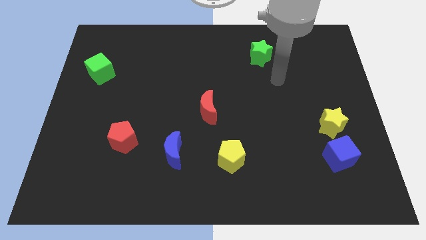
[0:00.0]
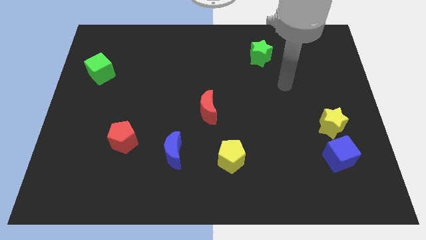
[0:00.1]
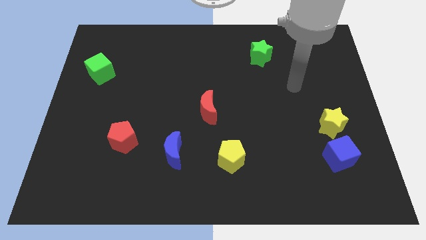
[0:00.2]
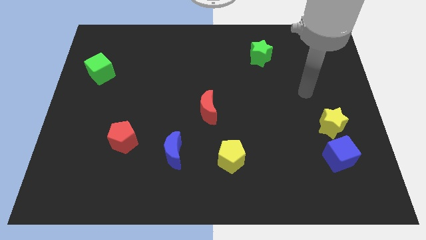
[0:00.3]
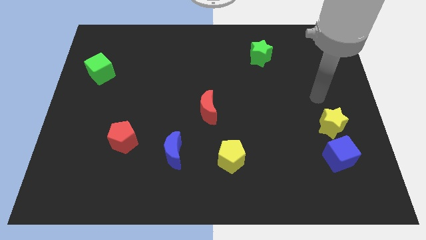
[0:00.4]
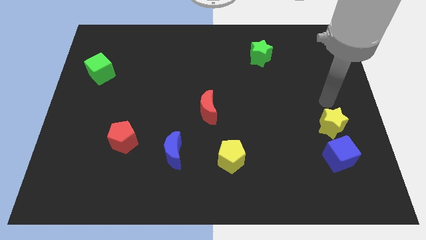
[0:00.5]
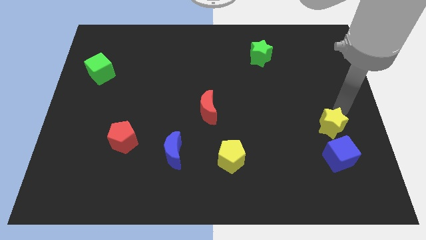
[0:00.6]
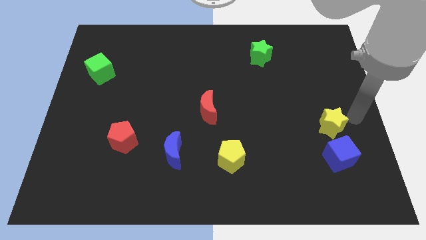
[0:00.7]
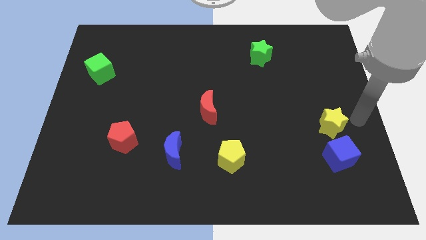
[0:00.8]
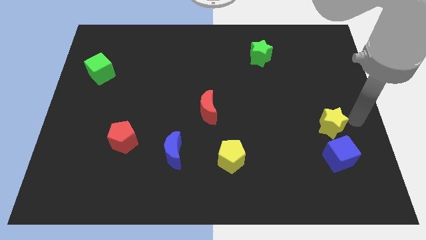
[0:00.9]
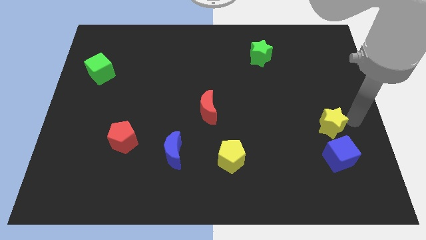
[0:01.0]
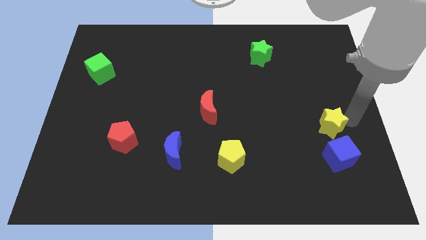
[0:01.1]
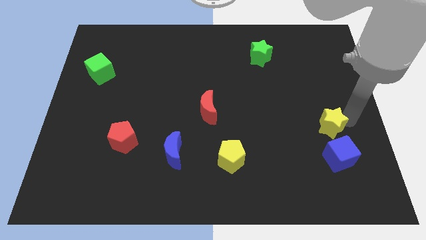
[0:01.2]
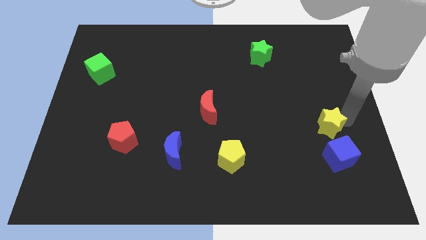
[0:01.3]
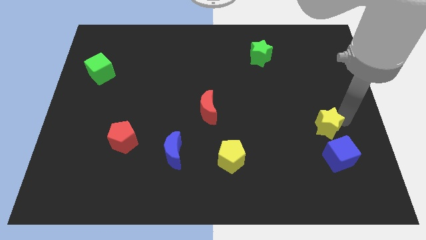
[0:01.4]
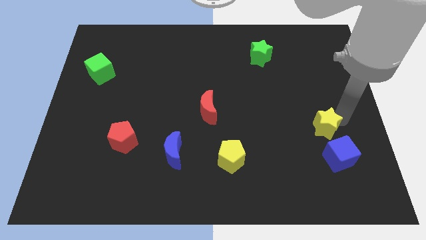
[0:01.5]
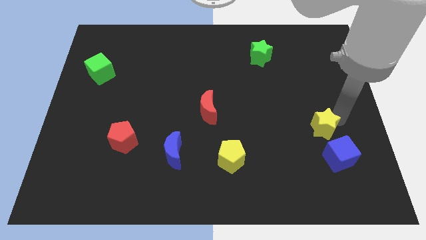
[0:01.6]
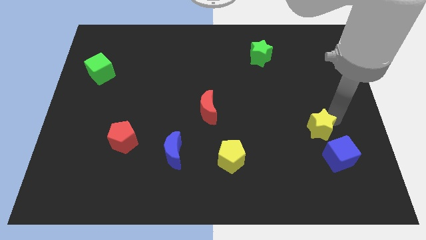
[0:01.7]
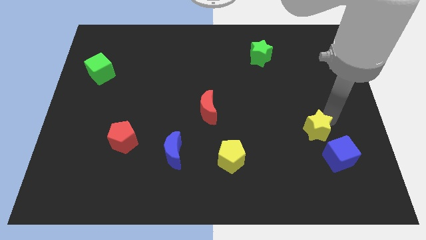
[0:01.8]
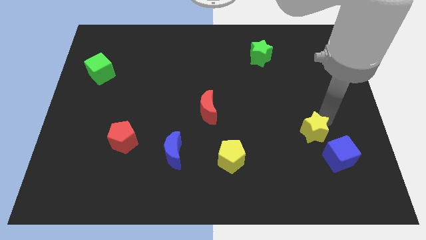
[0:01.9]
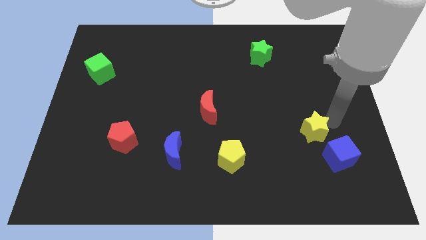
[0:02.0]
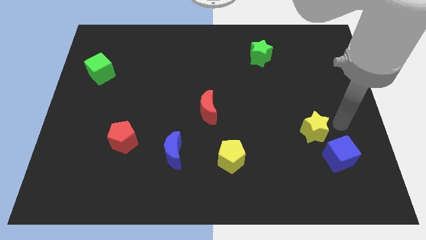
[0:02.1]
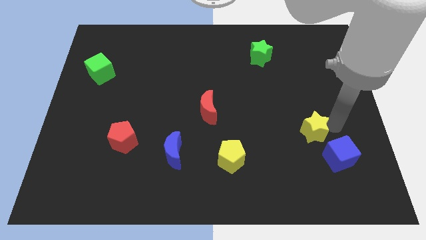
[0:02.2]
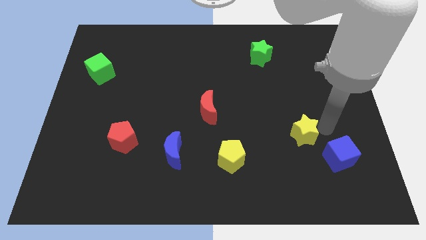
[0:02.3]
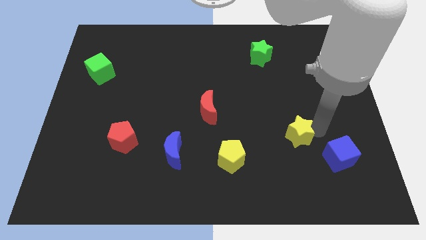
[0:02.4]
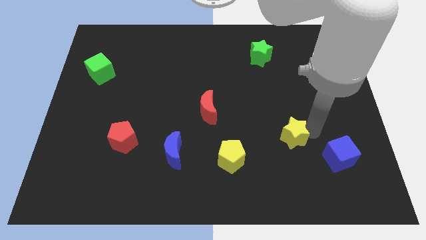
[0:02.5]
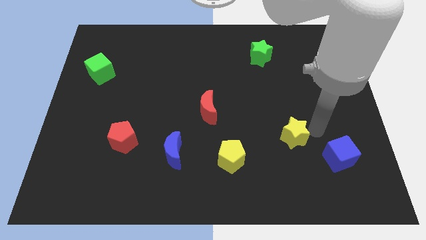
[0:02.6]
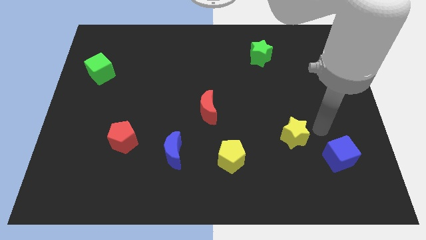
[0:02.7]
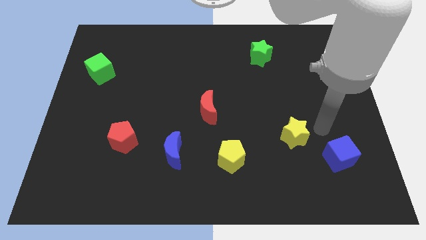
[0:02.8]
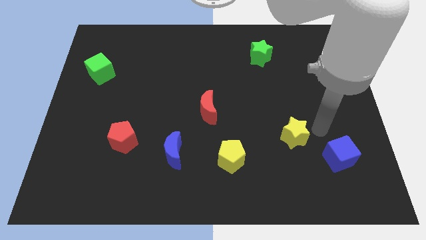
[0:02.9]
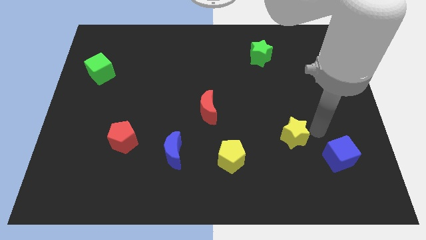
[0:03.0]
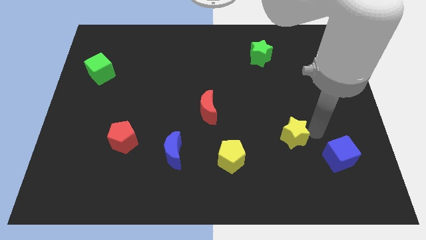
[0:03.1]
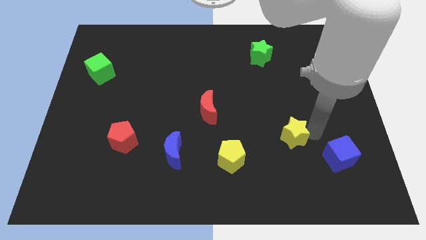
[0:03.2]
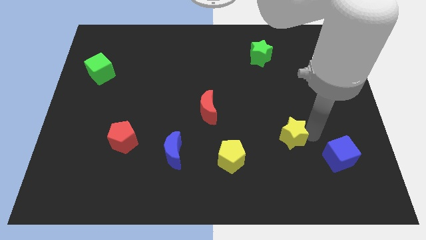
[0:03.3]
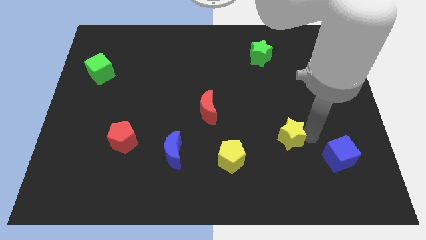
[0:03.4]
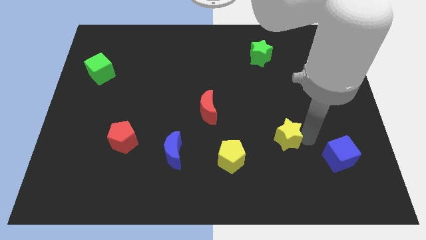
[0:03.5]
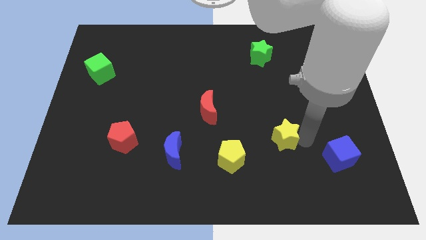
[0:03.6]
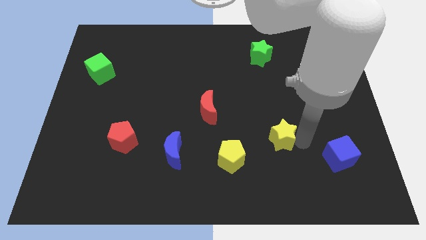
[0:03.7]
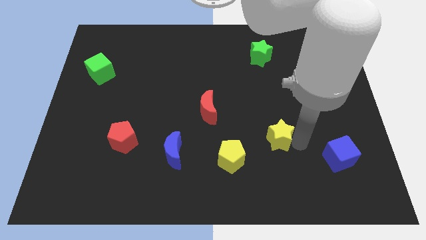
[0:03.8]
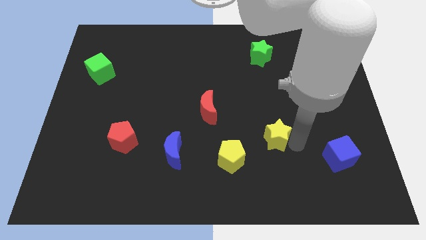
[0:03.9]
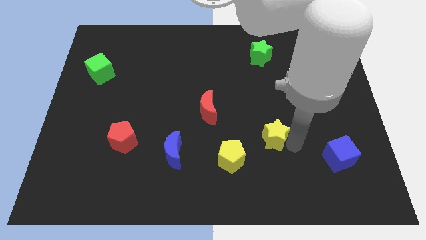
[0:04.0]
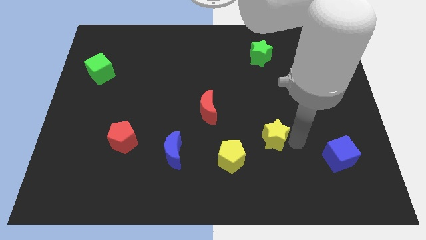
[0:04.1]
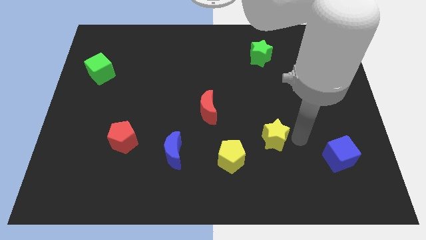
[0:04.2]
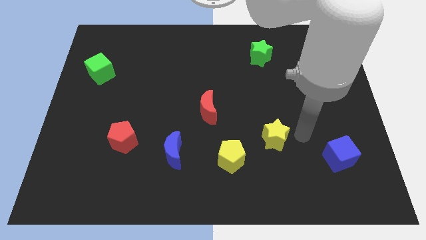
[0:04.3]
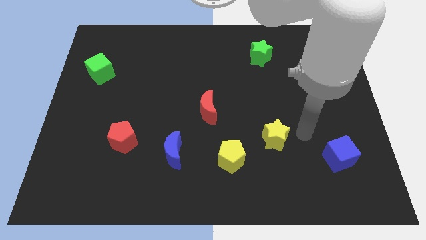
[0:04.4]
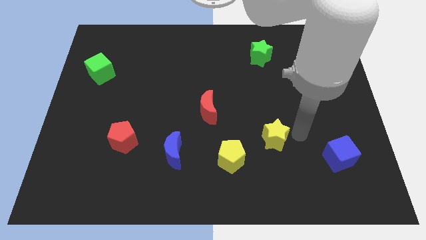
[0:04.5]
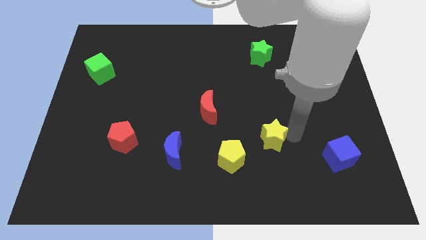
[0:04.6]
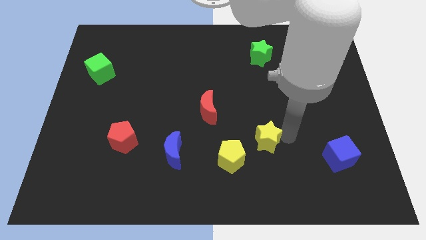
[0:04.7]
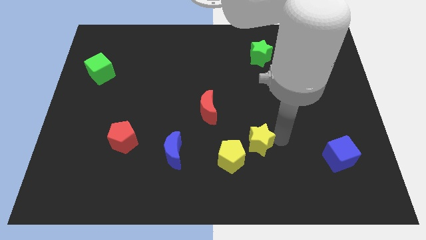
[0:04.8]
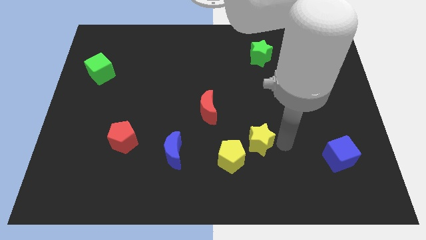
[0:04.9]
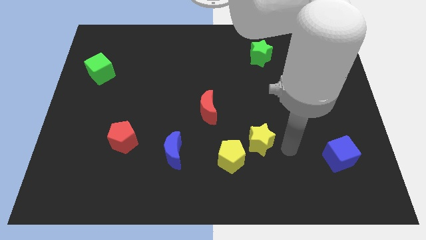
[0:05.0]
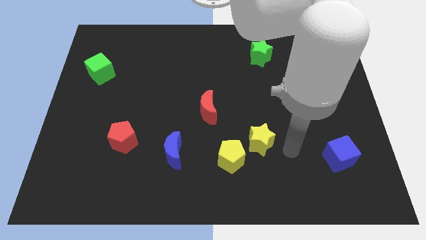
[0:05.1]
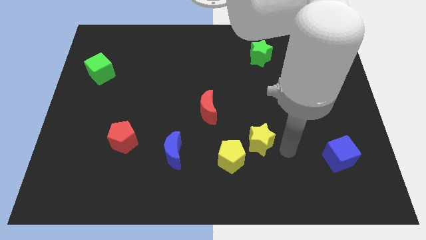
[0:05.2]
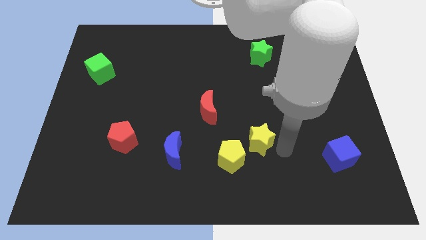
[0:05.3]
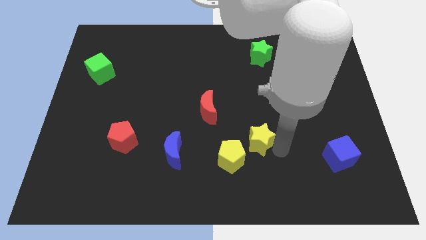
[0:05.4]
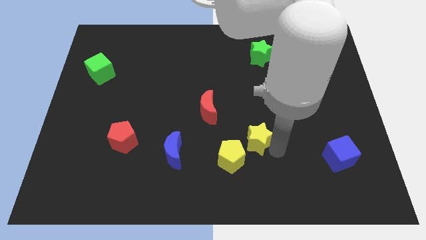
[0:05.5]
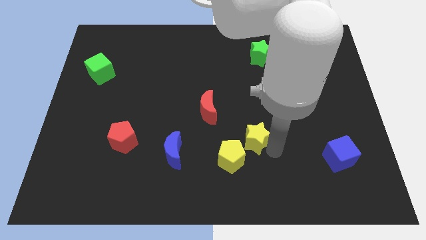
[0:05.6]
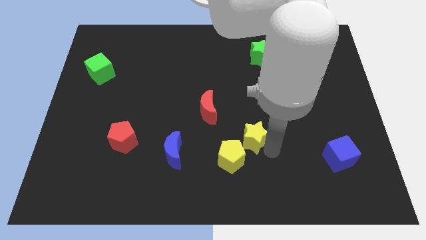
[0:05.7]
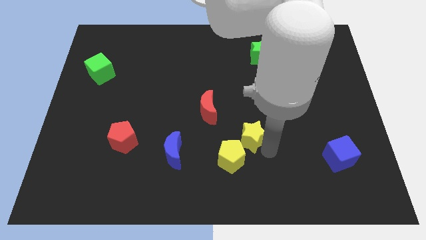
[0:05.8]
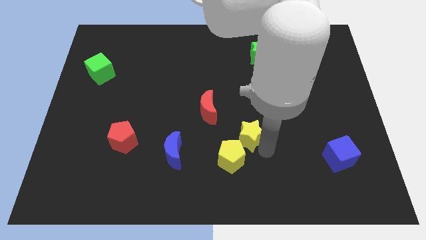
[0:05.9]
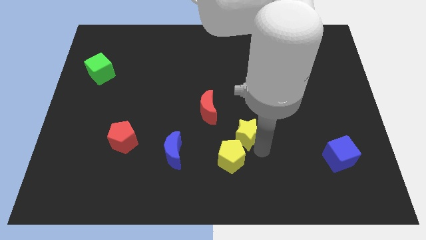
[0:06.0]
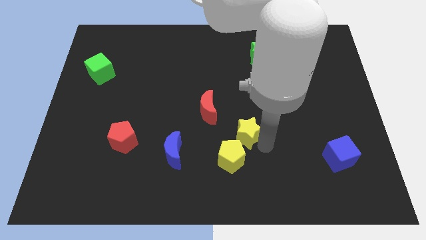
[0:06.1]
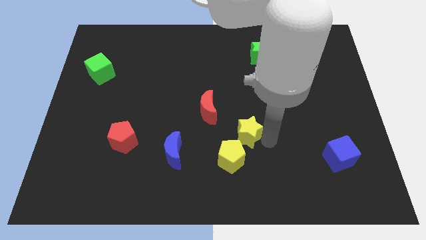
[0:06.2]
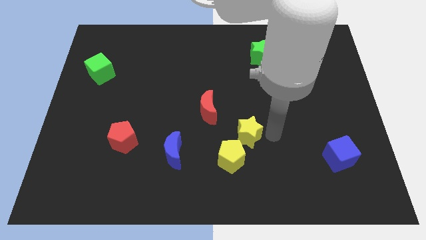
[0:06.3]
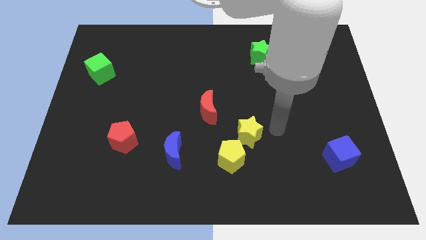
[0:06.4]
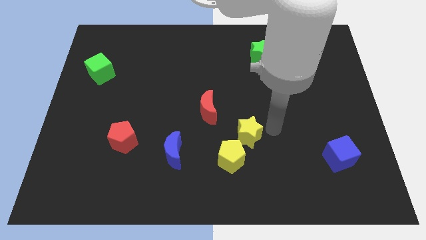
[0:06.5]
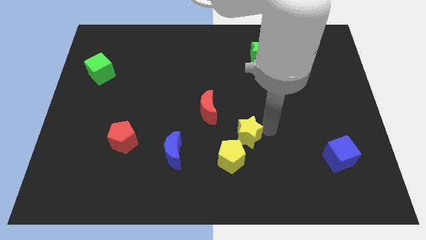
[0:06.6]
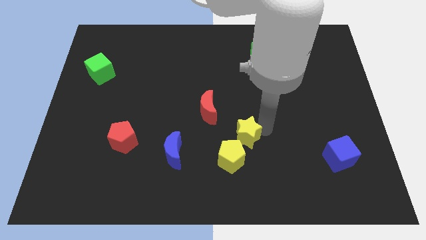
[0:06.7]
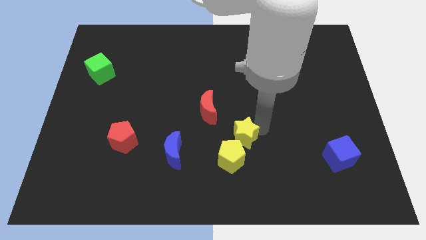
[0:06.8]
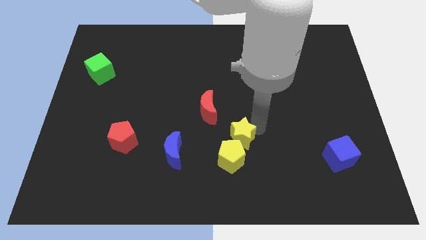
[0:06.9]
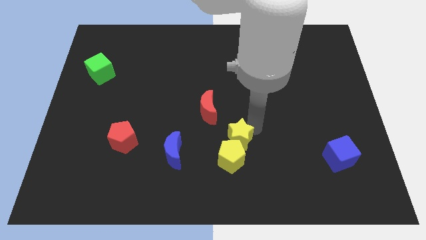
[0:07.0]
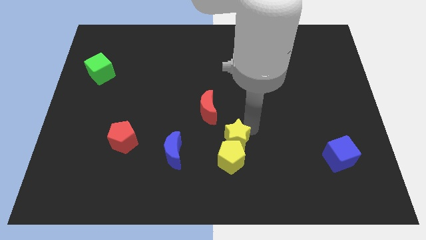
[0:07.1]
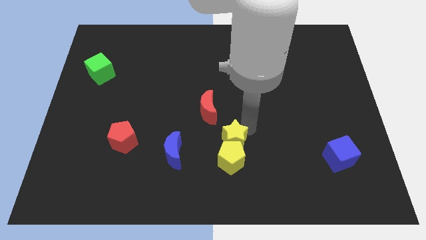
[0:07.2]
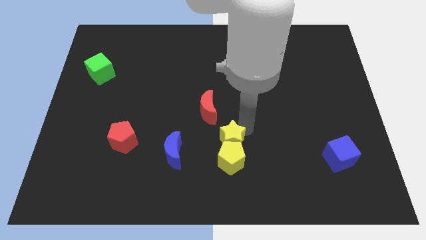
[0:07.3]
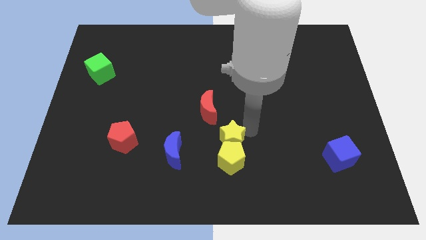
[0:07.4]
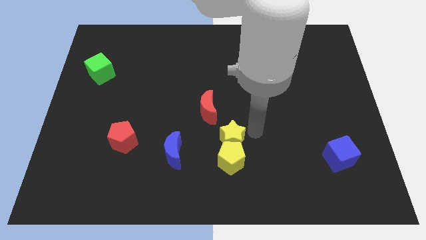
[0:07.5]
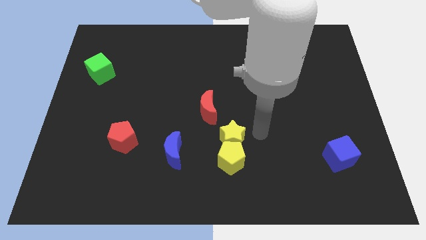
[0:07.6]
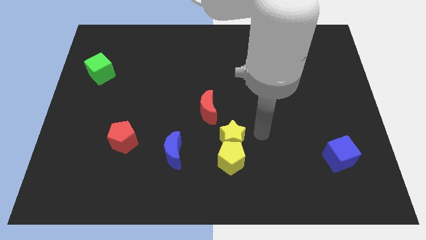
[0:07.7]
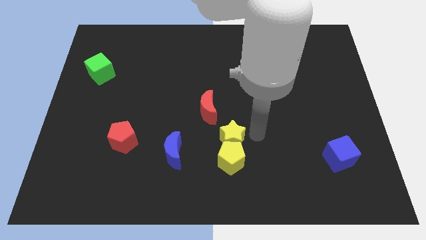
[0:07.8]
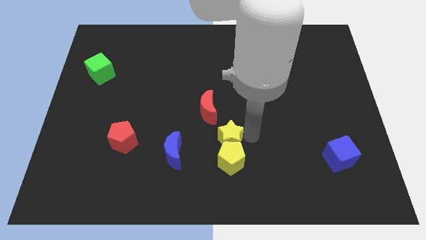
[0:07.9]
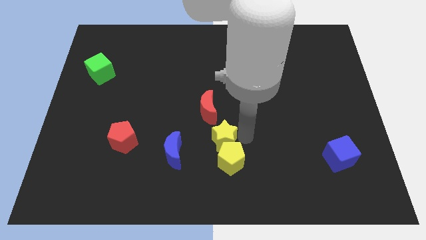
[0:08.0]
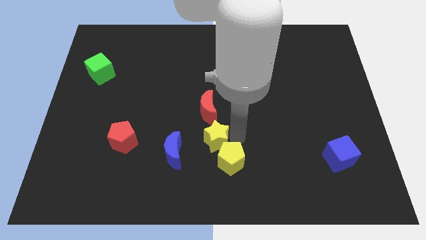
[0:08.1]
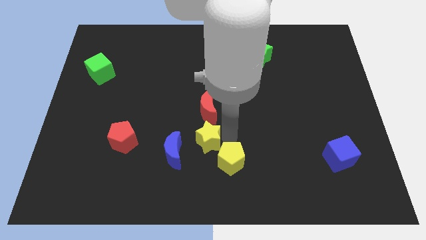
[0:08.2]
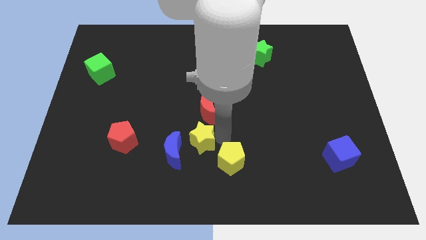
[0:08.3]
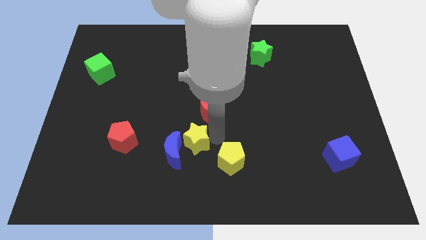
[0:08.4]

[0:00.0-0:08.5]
slide the yellow star to the blue moon
